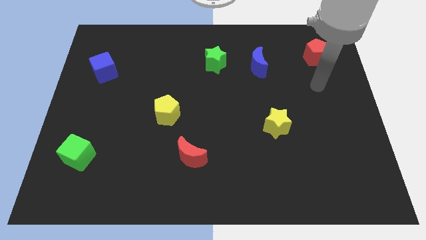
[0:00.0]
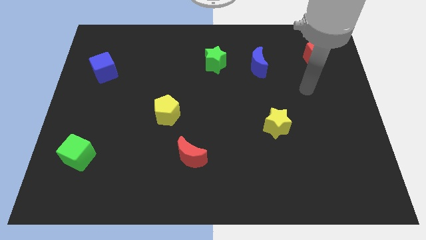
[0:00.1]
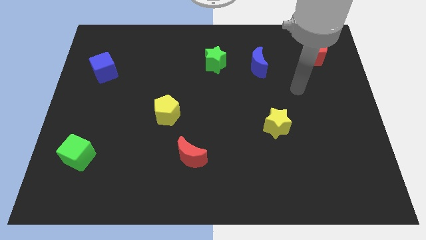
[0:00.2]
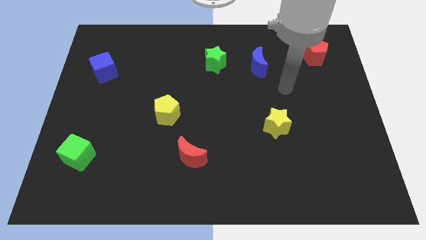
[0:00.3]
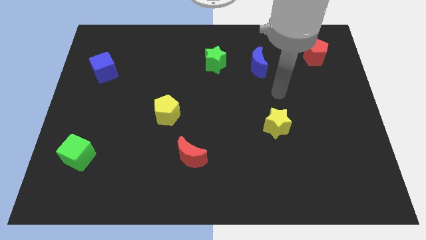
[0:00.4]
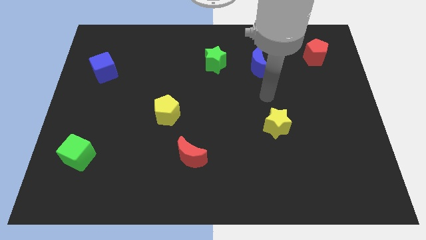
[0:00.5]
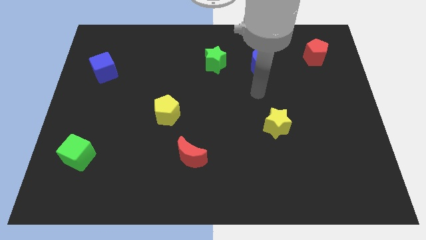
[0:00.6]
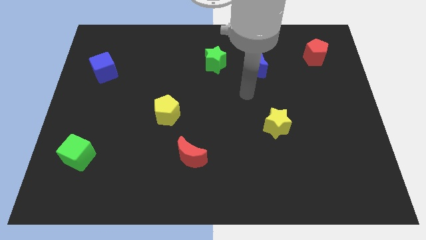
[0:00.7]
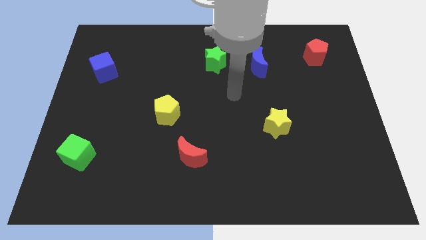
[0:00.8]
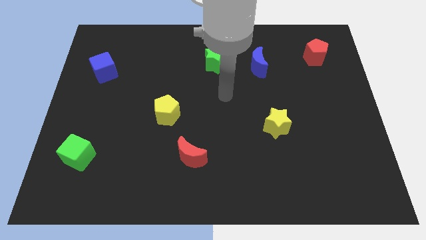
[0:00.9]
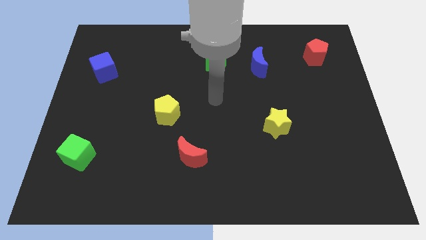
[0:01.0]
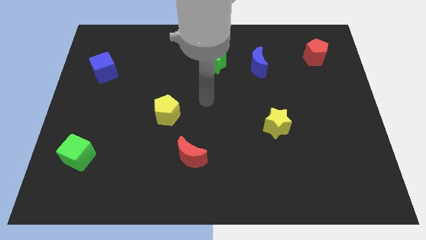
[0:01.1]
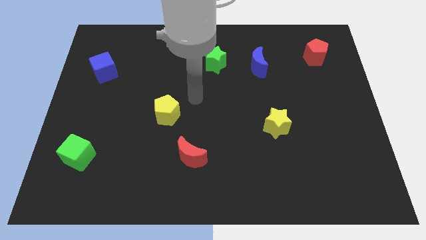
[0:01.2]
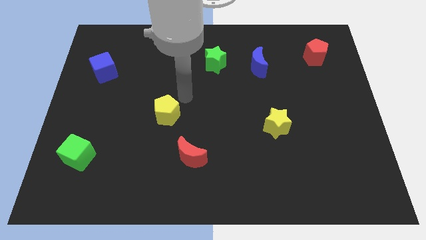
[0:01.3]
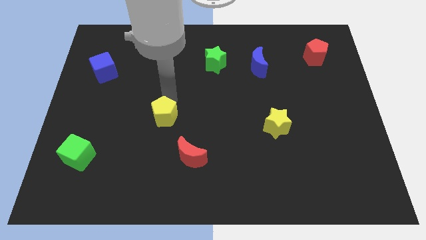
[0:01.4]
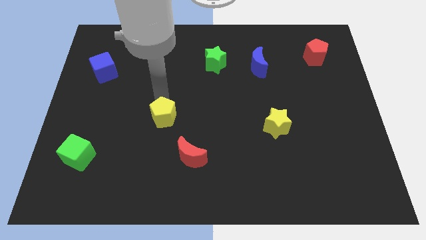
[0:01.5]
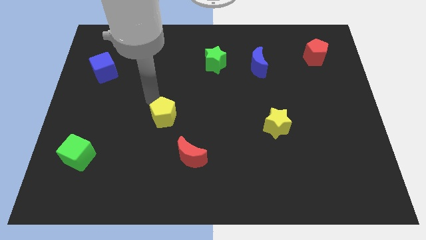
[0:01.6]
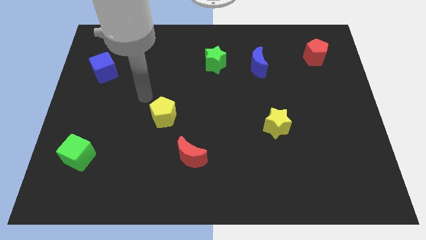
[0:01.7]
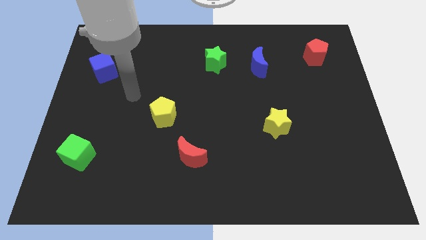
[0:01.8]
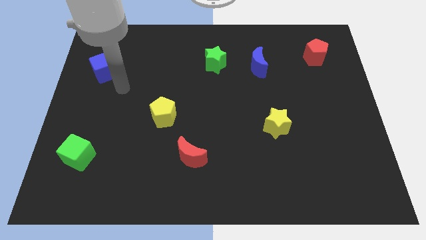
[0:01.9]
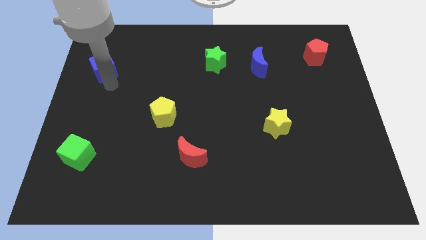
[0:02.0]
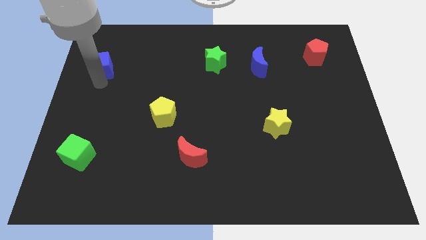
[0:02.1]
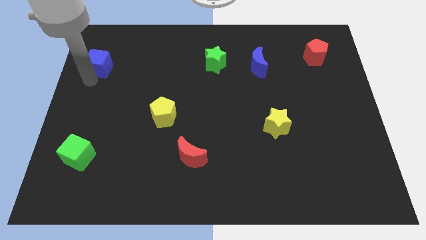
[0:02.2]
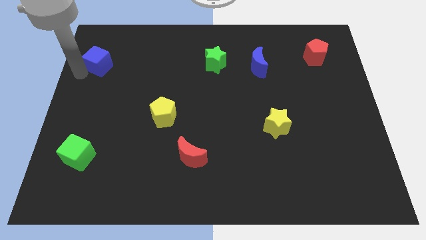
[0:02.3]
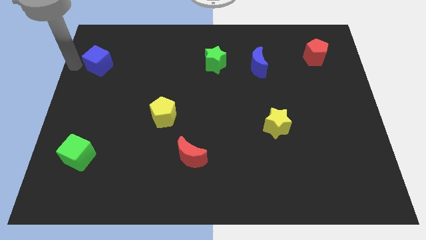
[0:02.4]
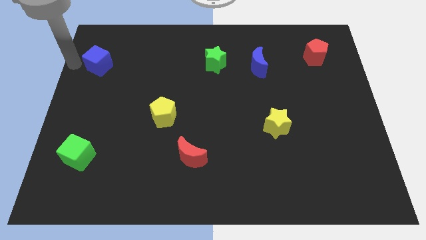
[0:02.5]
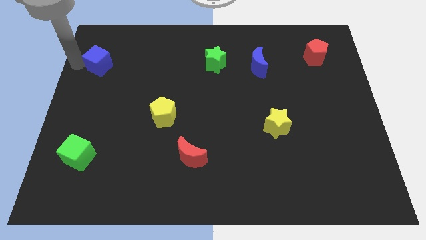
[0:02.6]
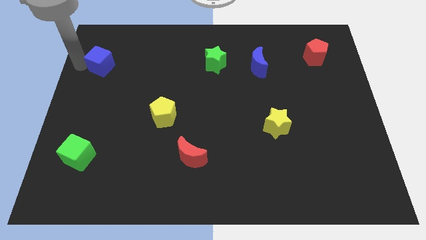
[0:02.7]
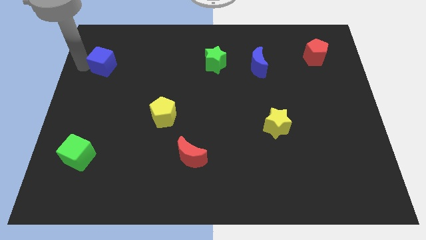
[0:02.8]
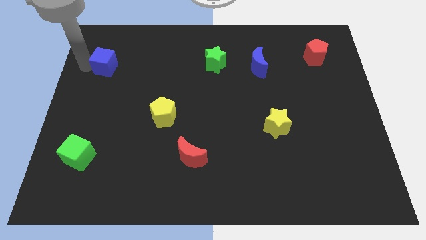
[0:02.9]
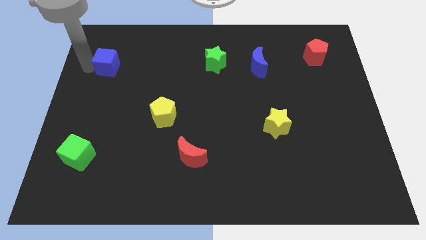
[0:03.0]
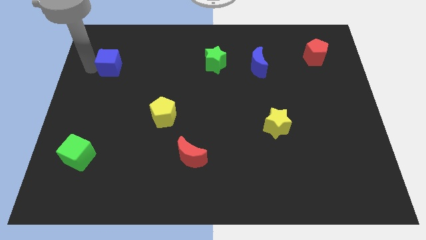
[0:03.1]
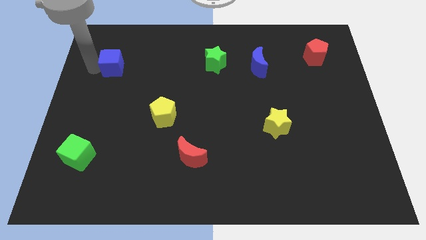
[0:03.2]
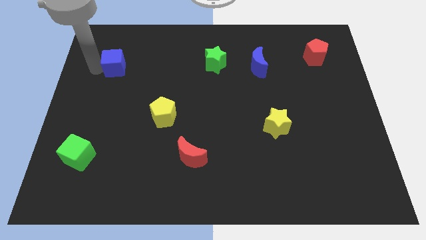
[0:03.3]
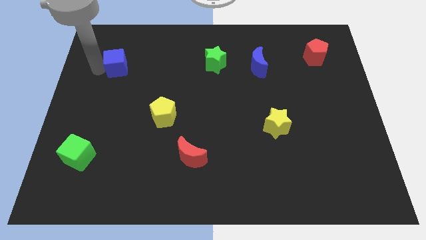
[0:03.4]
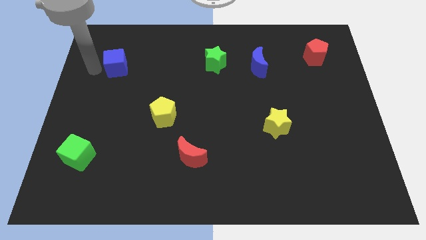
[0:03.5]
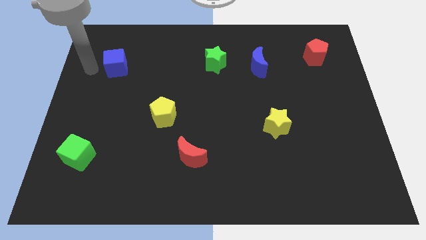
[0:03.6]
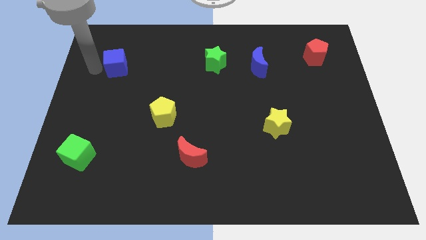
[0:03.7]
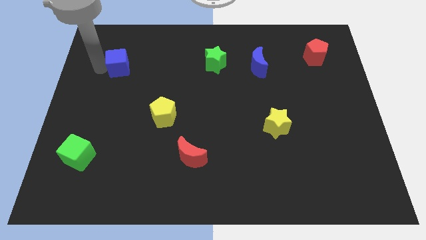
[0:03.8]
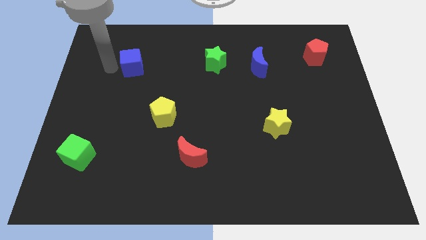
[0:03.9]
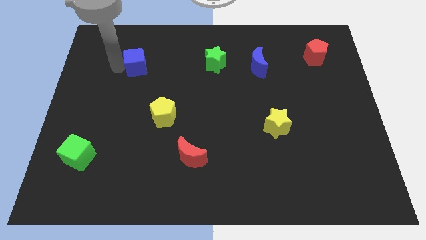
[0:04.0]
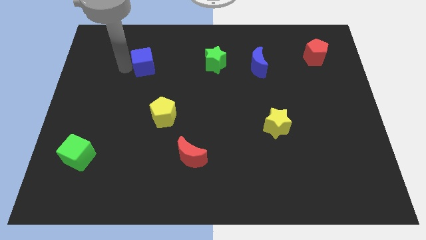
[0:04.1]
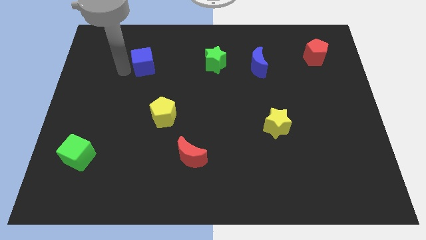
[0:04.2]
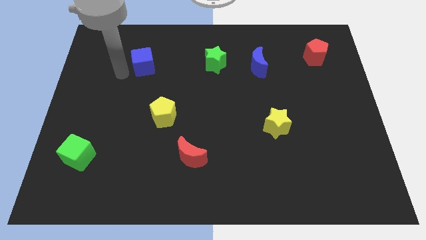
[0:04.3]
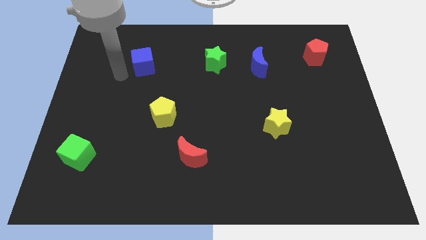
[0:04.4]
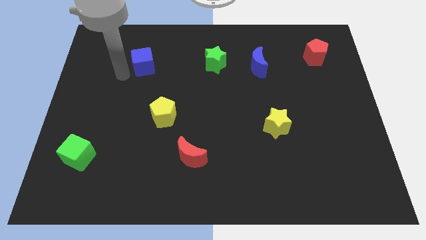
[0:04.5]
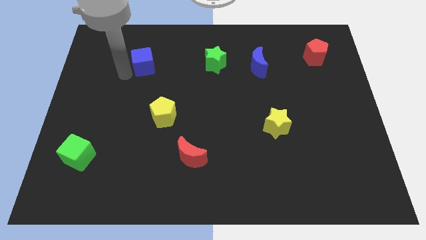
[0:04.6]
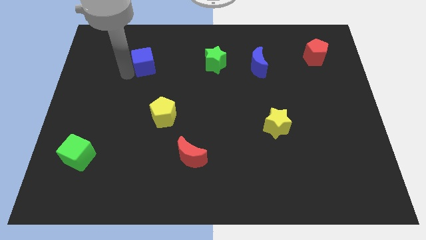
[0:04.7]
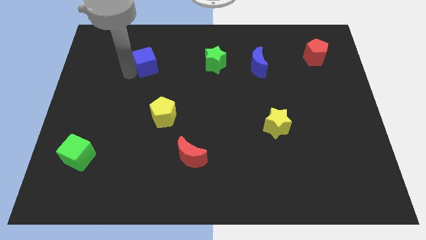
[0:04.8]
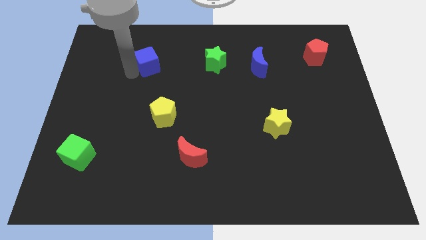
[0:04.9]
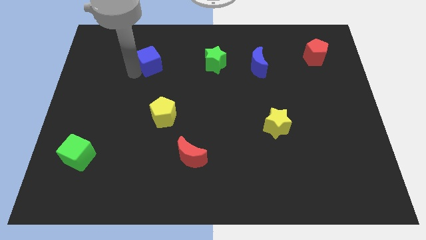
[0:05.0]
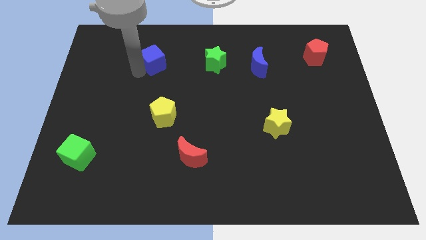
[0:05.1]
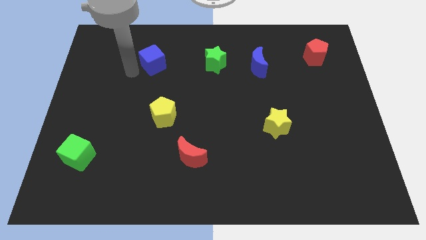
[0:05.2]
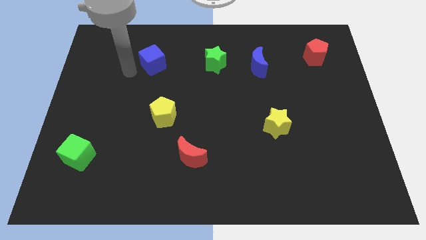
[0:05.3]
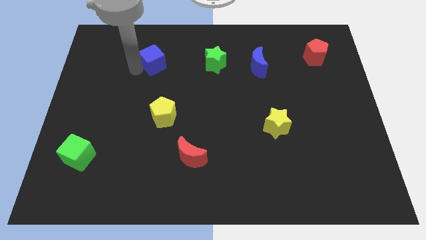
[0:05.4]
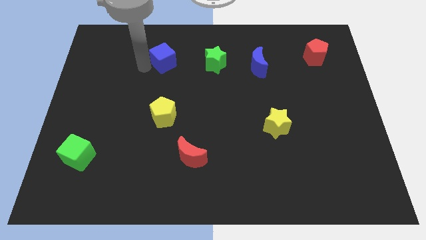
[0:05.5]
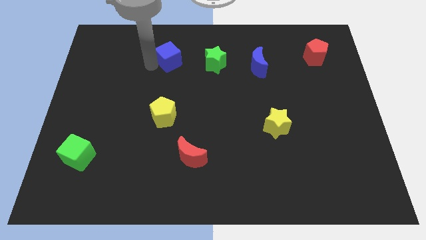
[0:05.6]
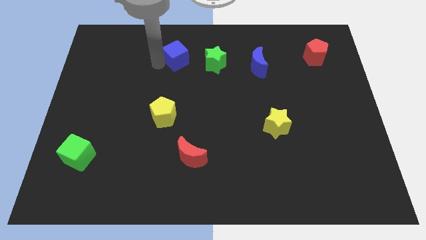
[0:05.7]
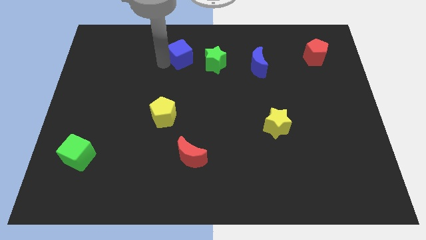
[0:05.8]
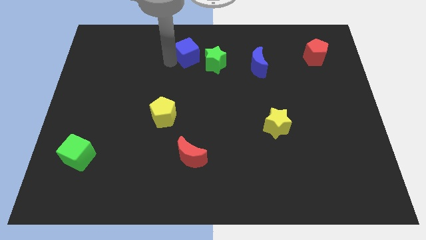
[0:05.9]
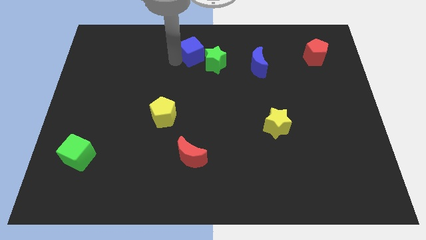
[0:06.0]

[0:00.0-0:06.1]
move the blue cube to the top side
